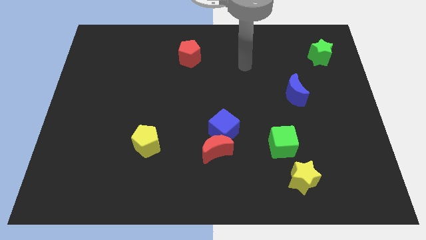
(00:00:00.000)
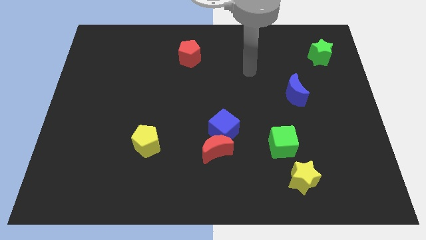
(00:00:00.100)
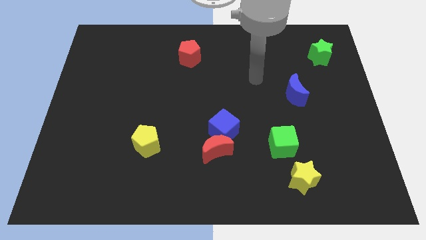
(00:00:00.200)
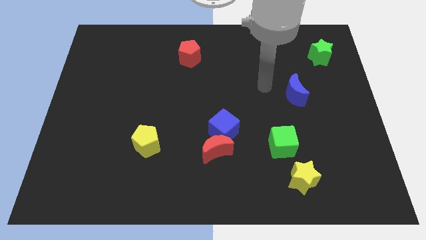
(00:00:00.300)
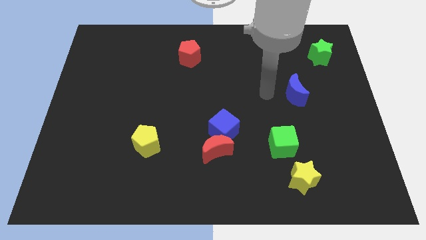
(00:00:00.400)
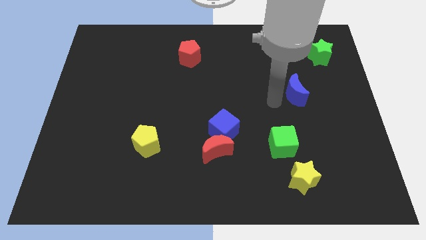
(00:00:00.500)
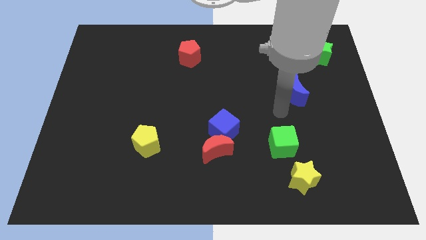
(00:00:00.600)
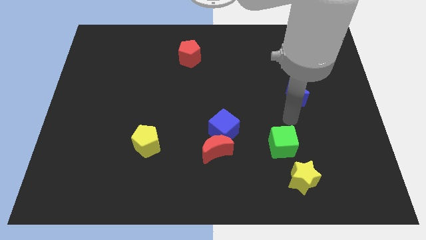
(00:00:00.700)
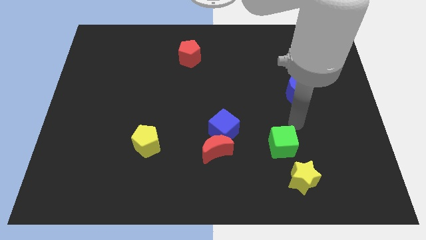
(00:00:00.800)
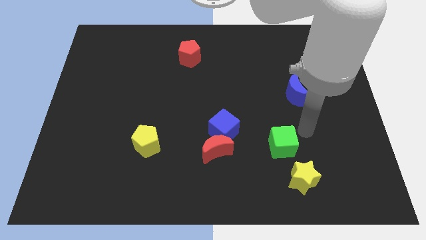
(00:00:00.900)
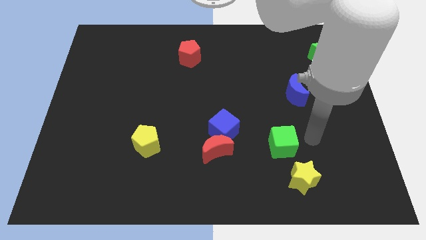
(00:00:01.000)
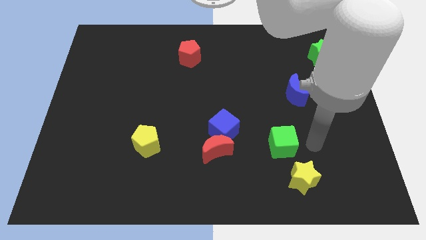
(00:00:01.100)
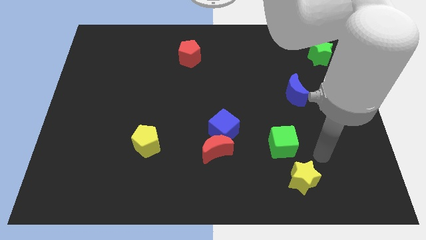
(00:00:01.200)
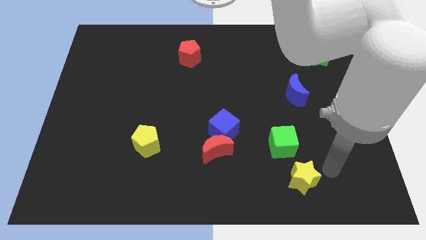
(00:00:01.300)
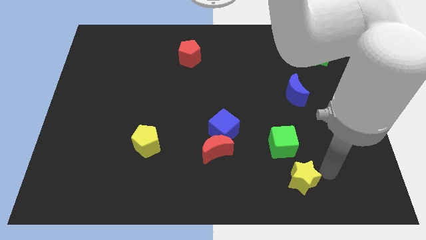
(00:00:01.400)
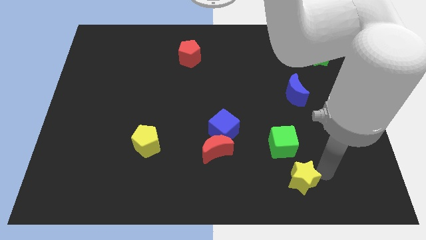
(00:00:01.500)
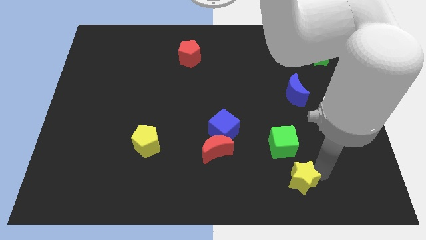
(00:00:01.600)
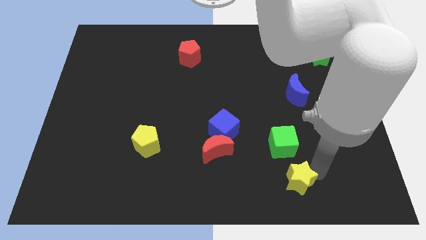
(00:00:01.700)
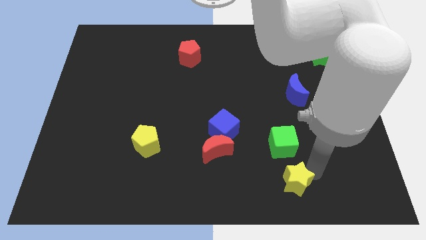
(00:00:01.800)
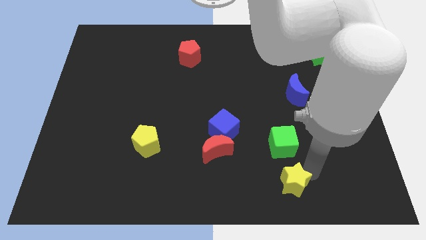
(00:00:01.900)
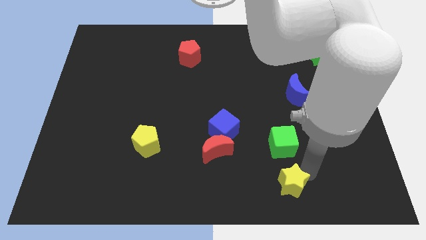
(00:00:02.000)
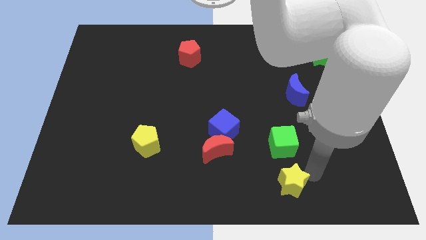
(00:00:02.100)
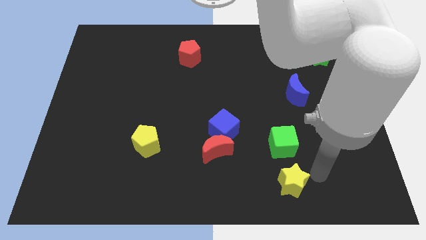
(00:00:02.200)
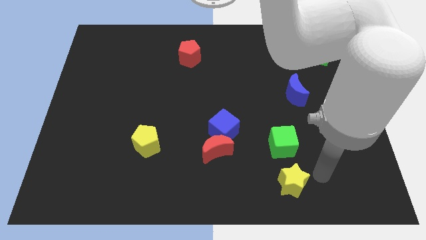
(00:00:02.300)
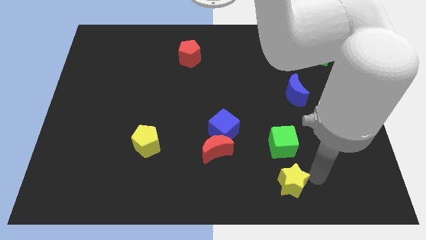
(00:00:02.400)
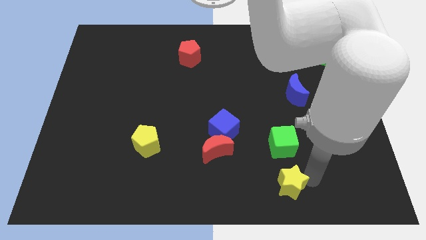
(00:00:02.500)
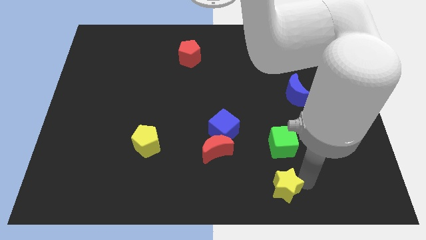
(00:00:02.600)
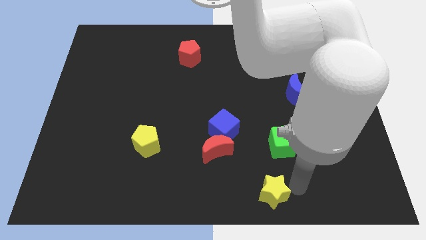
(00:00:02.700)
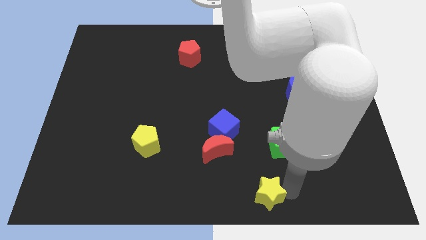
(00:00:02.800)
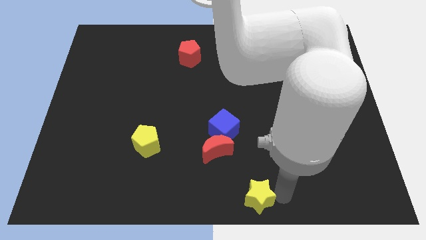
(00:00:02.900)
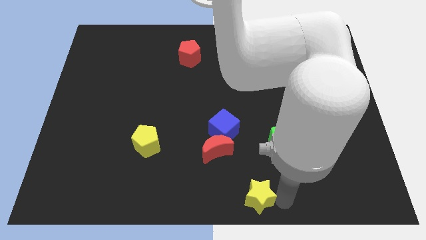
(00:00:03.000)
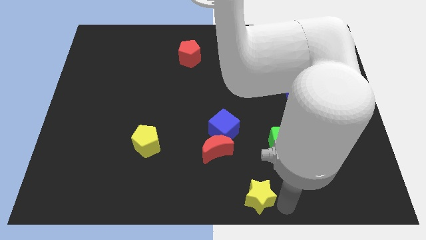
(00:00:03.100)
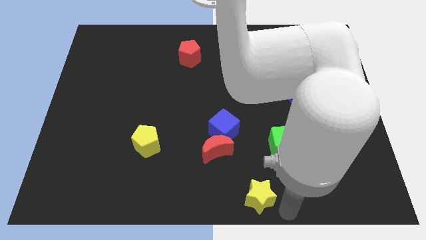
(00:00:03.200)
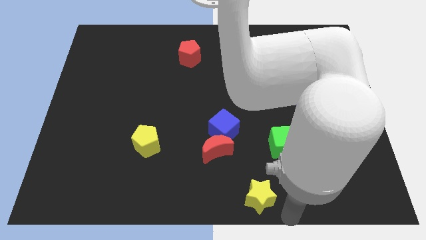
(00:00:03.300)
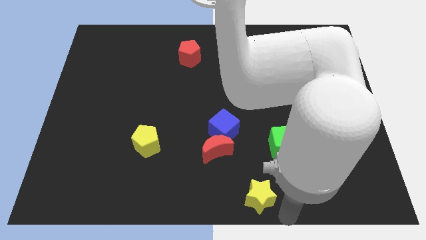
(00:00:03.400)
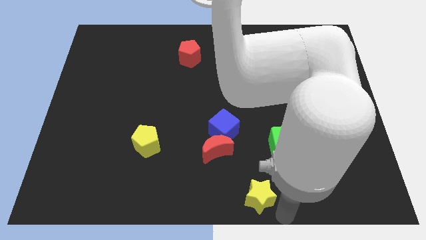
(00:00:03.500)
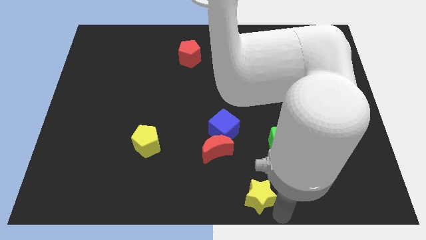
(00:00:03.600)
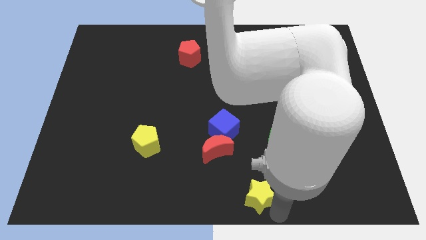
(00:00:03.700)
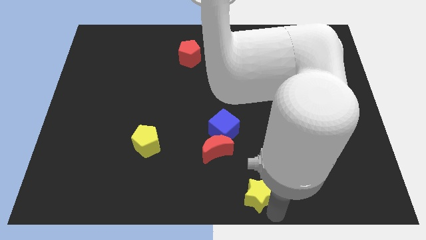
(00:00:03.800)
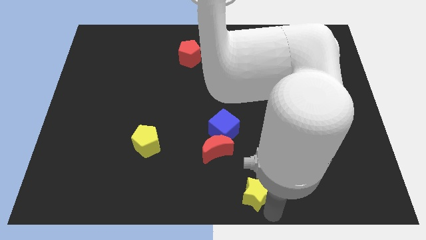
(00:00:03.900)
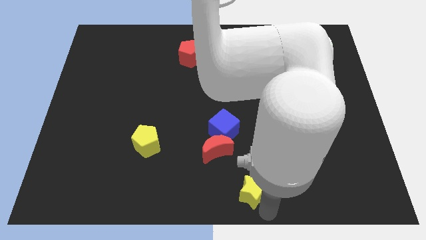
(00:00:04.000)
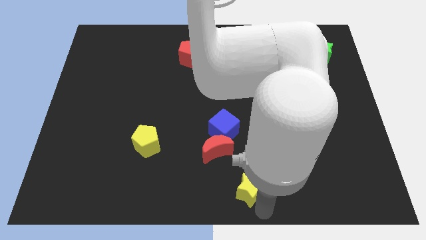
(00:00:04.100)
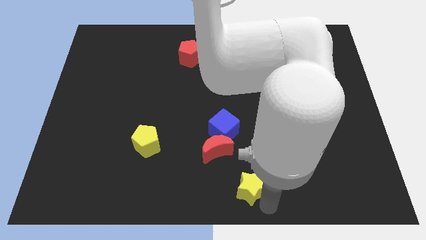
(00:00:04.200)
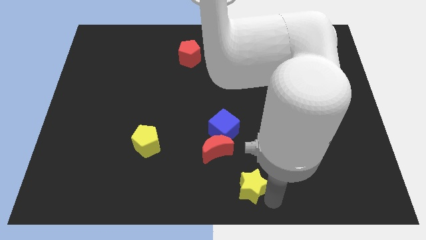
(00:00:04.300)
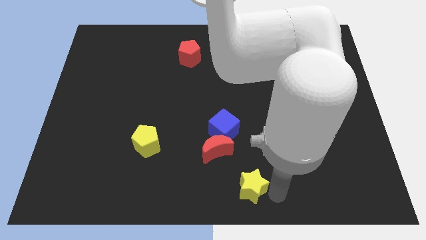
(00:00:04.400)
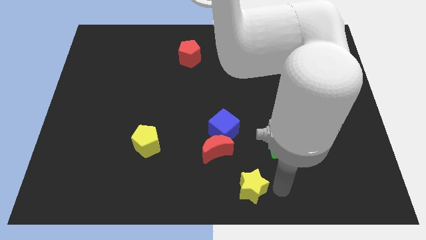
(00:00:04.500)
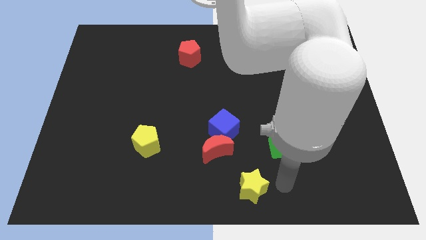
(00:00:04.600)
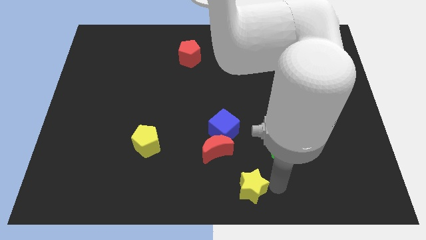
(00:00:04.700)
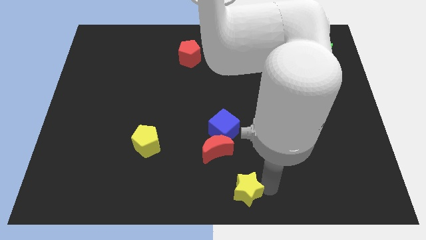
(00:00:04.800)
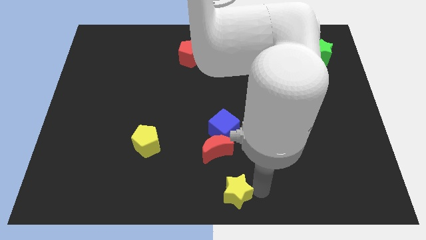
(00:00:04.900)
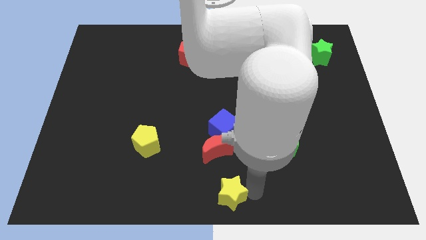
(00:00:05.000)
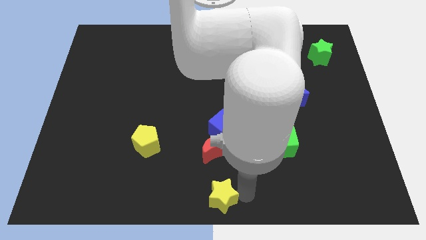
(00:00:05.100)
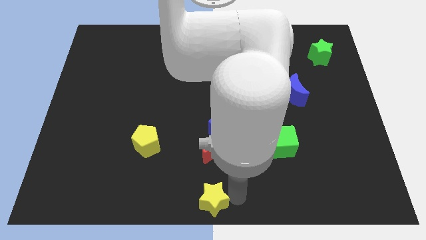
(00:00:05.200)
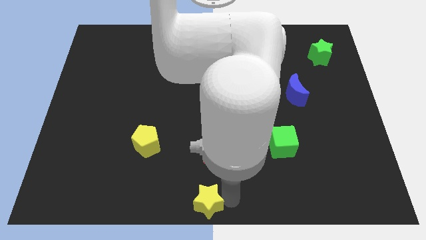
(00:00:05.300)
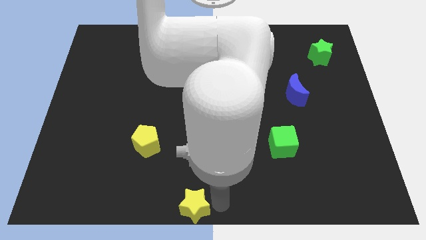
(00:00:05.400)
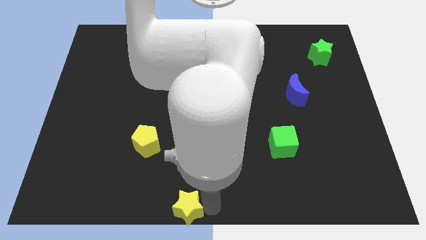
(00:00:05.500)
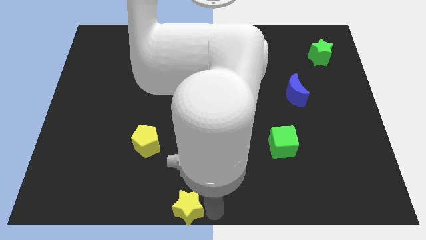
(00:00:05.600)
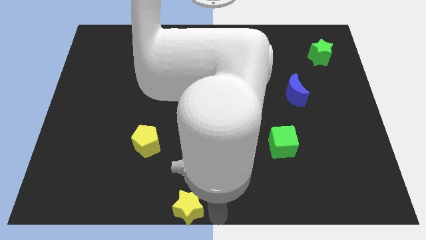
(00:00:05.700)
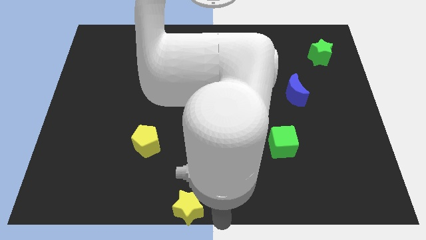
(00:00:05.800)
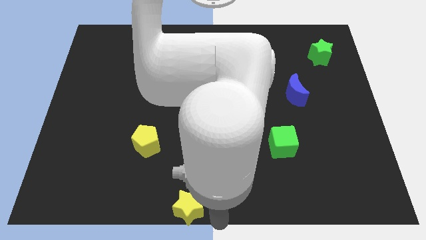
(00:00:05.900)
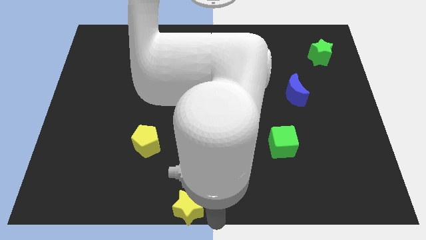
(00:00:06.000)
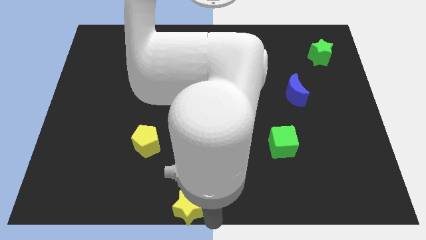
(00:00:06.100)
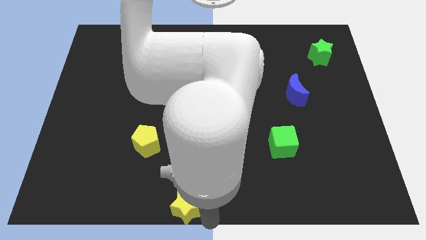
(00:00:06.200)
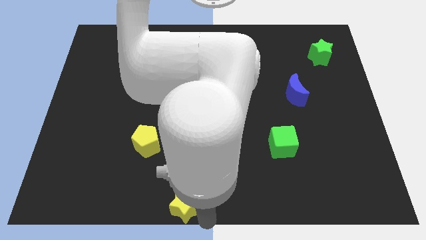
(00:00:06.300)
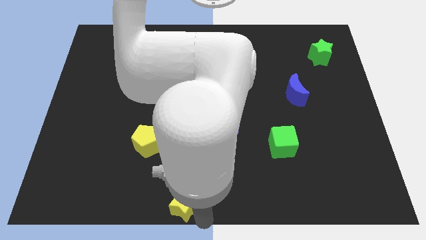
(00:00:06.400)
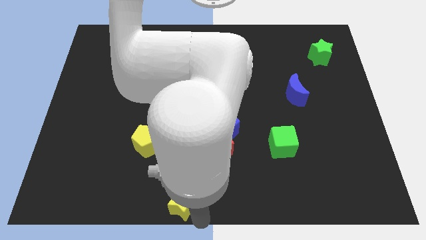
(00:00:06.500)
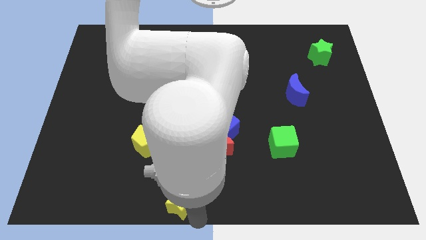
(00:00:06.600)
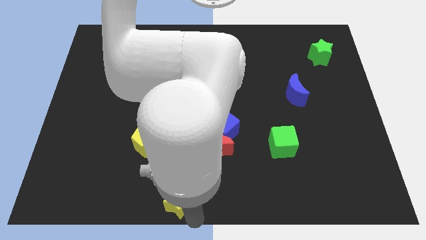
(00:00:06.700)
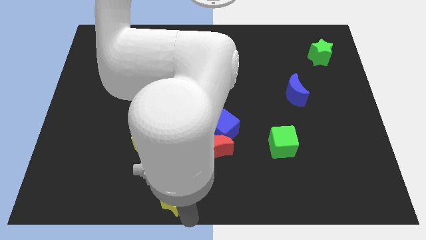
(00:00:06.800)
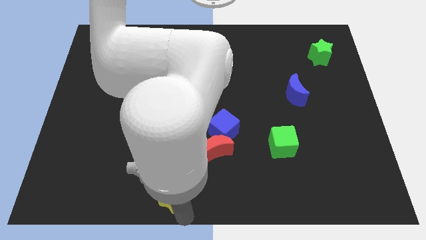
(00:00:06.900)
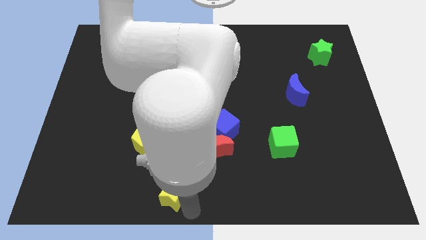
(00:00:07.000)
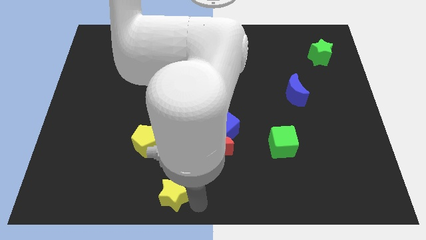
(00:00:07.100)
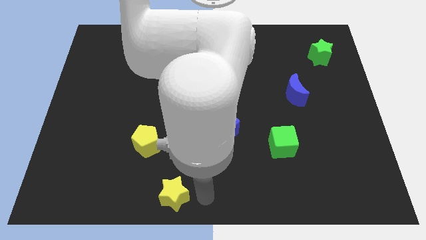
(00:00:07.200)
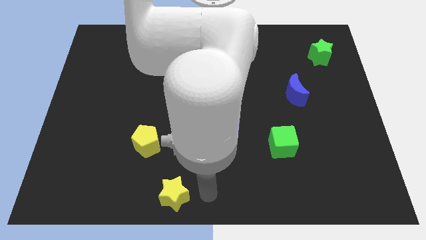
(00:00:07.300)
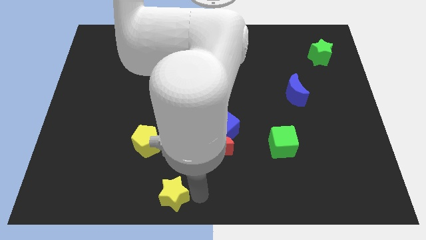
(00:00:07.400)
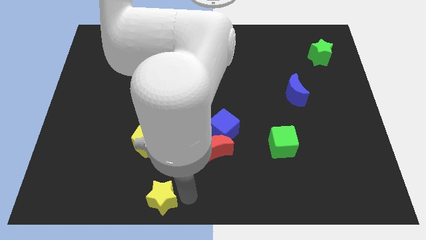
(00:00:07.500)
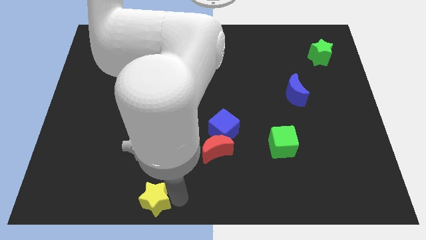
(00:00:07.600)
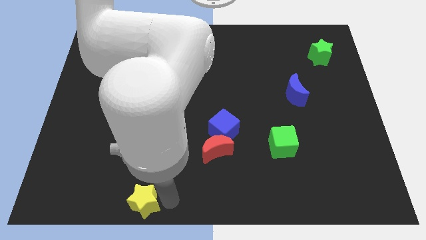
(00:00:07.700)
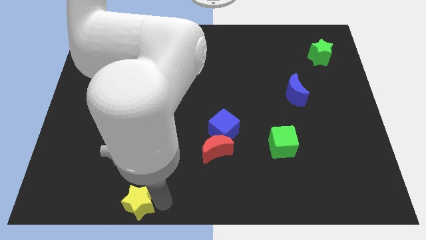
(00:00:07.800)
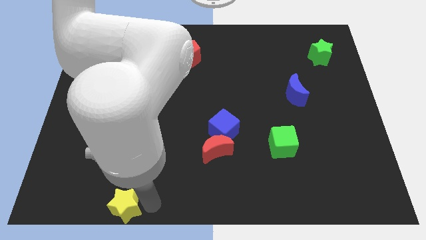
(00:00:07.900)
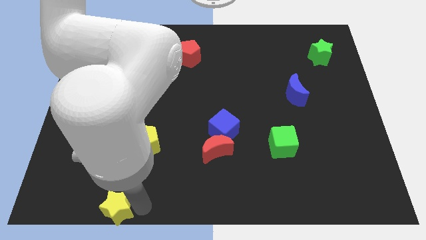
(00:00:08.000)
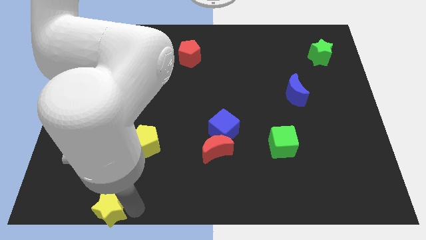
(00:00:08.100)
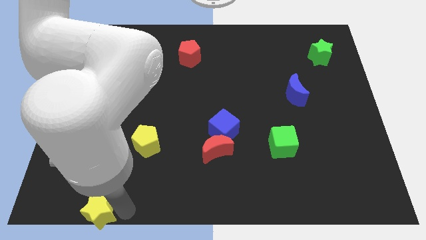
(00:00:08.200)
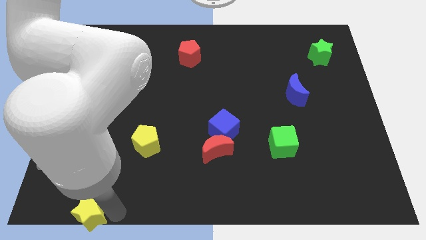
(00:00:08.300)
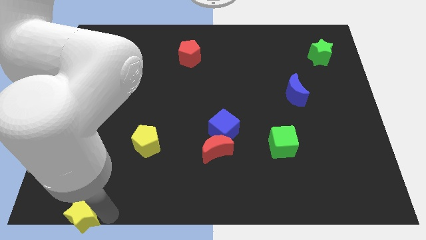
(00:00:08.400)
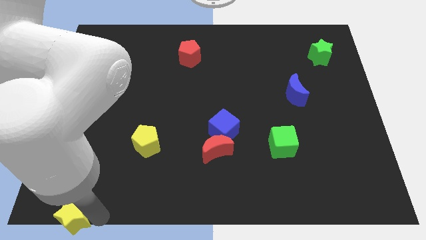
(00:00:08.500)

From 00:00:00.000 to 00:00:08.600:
slide the yellow star to the bottom left of the board
